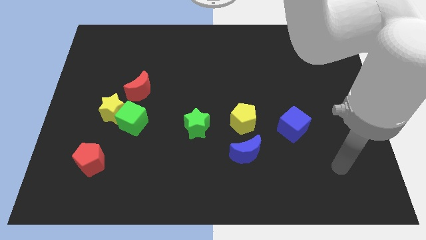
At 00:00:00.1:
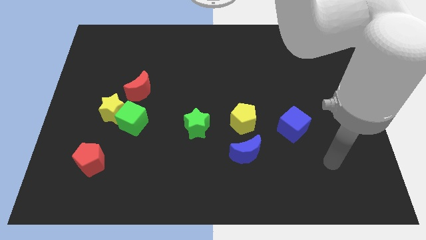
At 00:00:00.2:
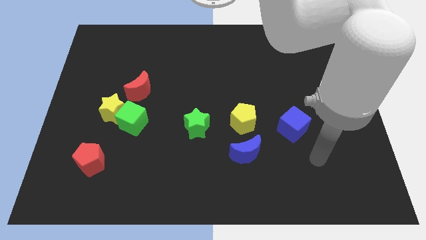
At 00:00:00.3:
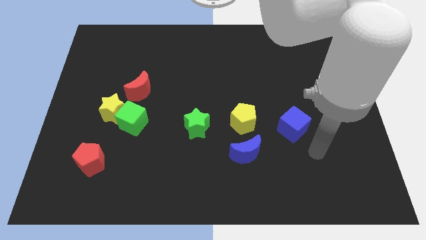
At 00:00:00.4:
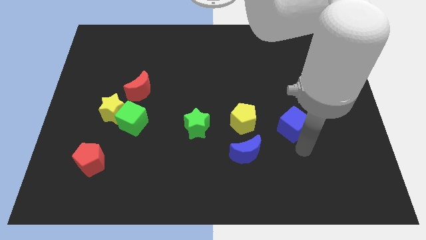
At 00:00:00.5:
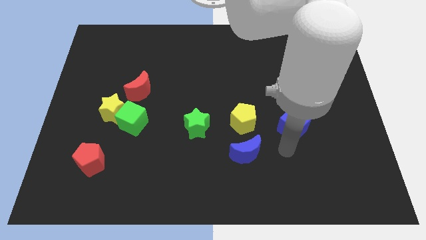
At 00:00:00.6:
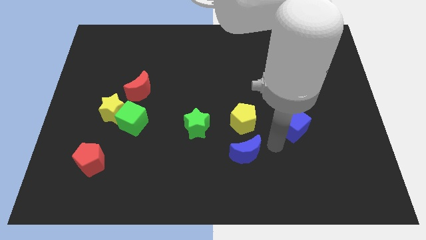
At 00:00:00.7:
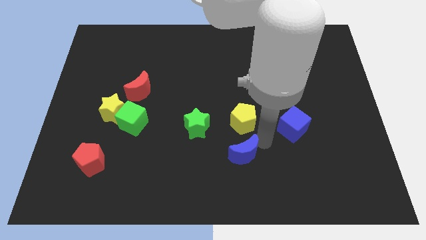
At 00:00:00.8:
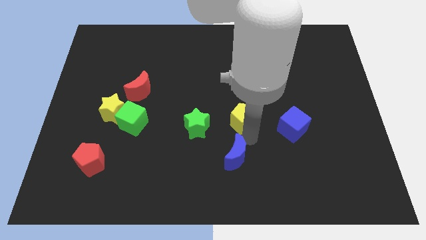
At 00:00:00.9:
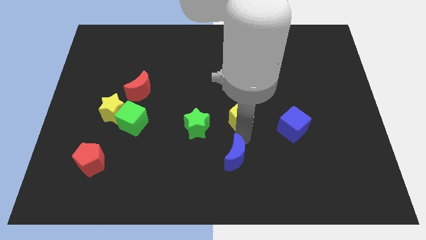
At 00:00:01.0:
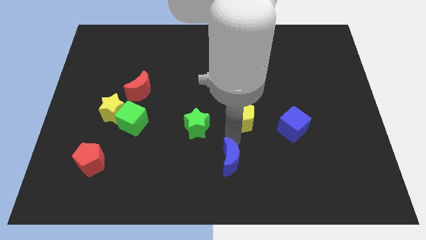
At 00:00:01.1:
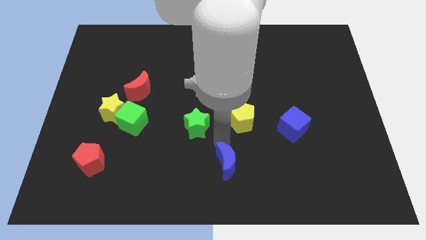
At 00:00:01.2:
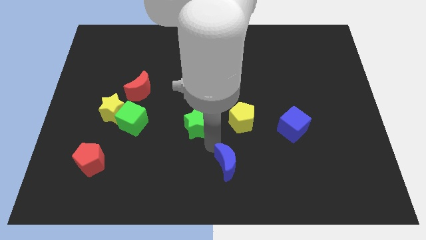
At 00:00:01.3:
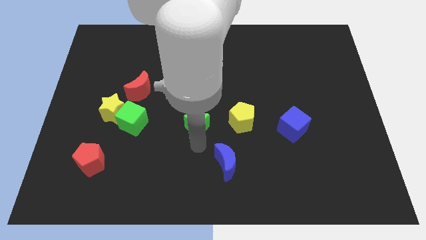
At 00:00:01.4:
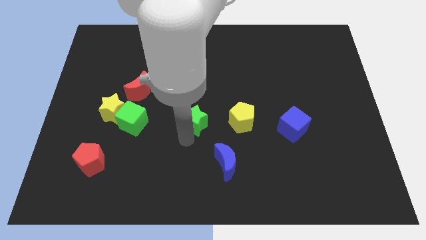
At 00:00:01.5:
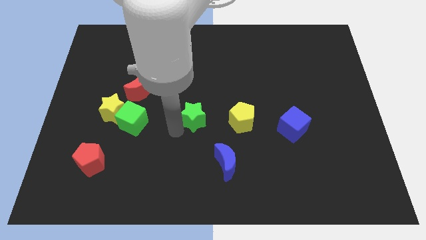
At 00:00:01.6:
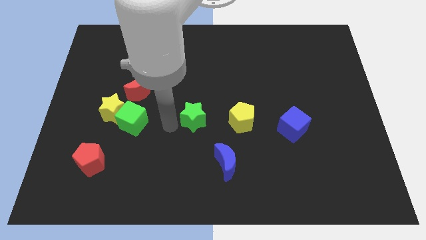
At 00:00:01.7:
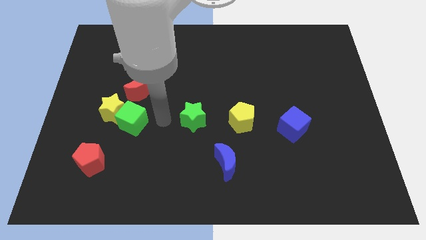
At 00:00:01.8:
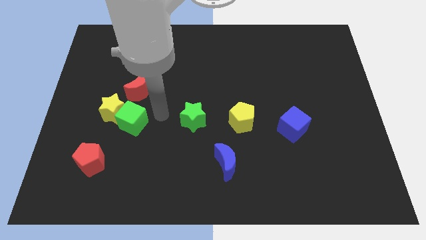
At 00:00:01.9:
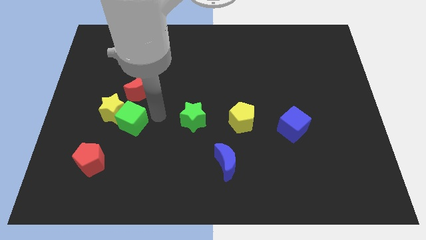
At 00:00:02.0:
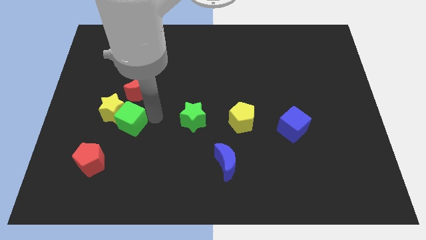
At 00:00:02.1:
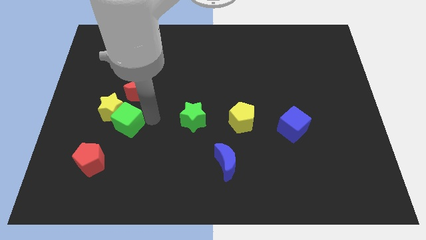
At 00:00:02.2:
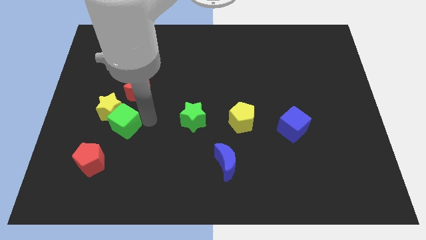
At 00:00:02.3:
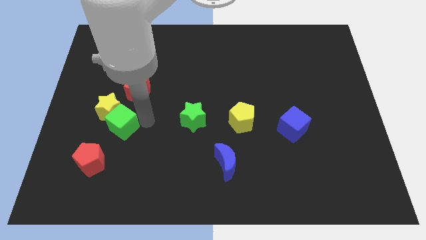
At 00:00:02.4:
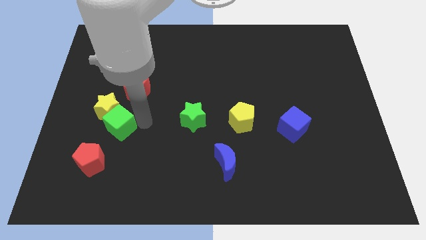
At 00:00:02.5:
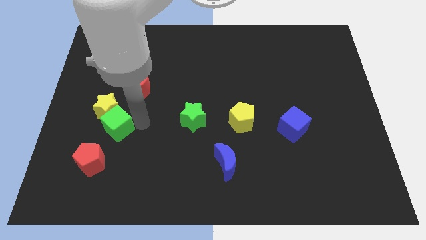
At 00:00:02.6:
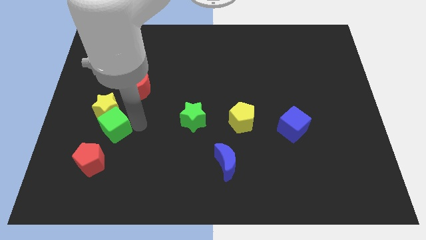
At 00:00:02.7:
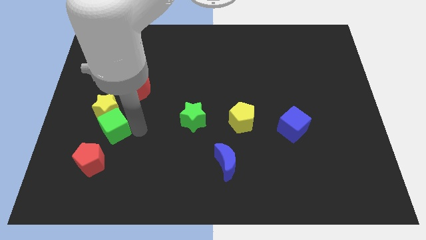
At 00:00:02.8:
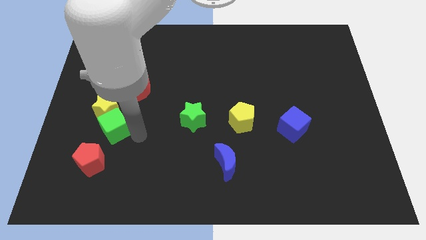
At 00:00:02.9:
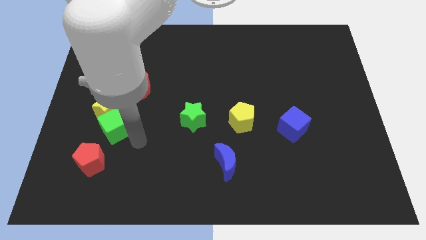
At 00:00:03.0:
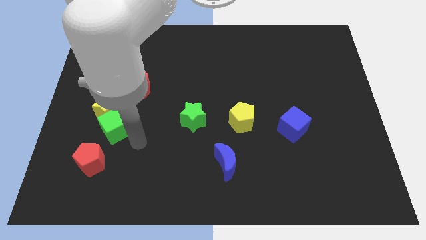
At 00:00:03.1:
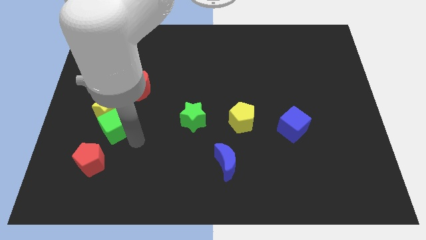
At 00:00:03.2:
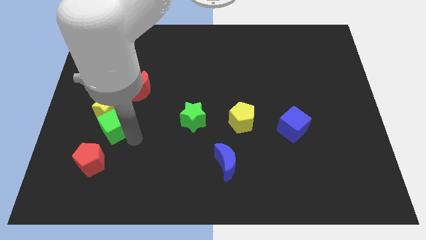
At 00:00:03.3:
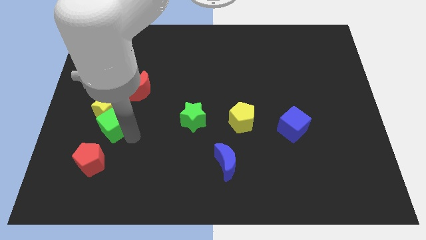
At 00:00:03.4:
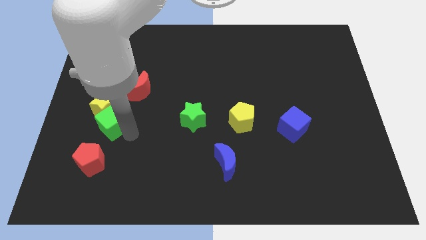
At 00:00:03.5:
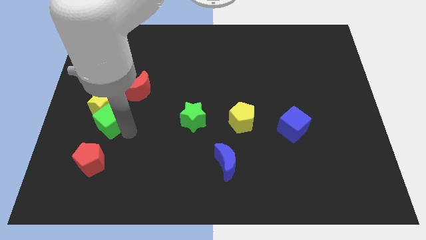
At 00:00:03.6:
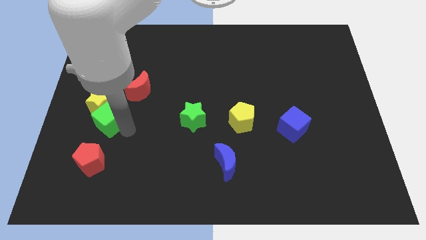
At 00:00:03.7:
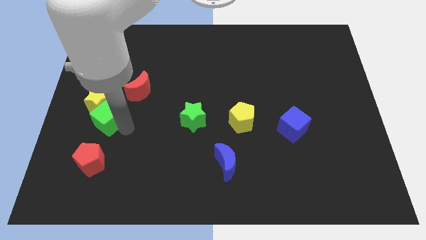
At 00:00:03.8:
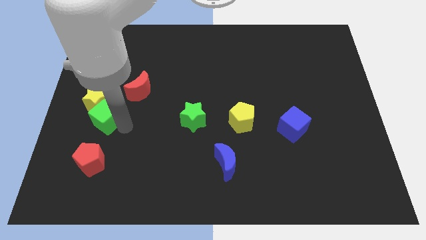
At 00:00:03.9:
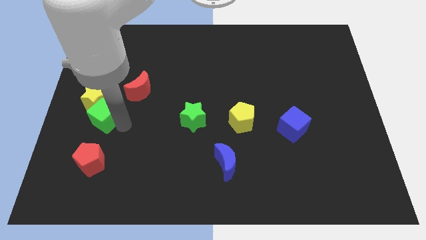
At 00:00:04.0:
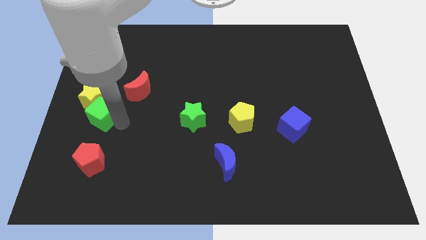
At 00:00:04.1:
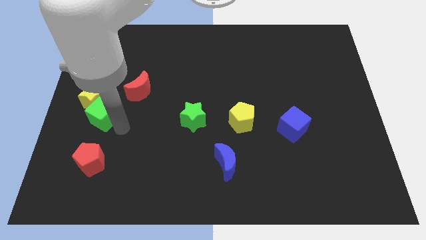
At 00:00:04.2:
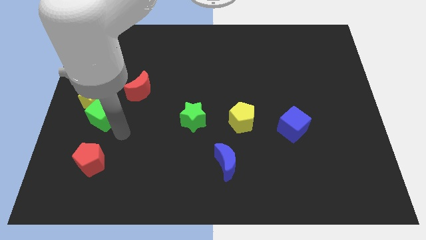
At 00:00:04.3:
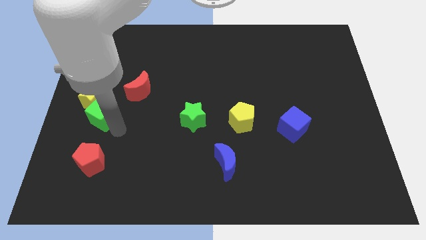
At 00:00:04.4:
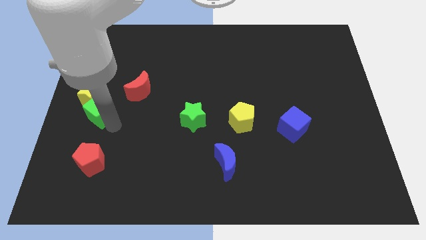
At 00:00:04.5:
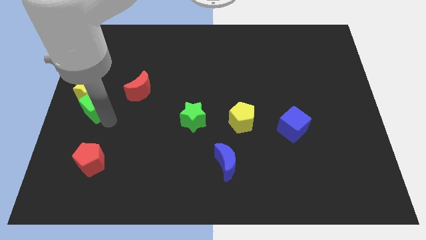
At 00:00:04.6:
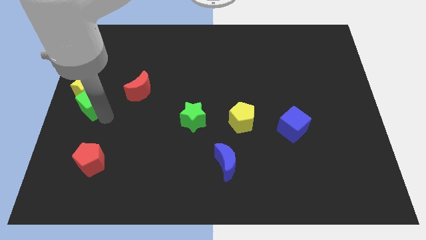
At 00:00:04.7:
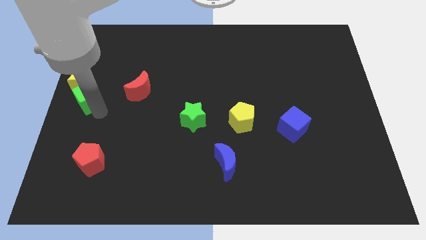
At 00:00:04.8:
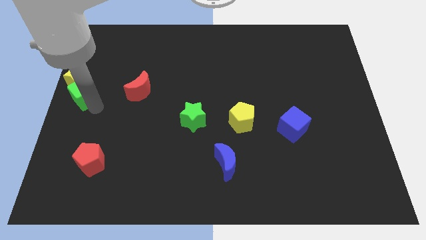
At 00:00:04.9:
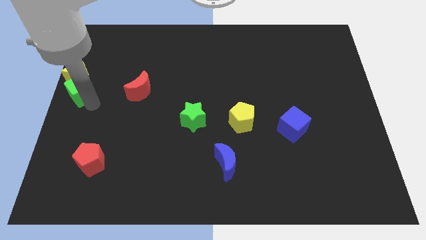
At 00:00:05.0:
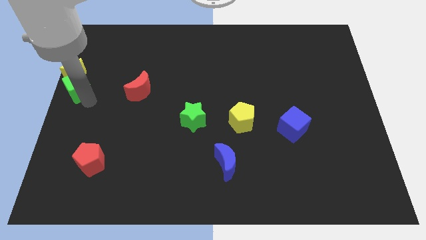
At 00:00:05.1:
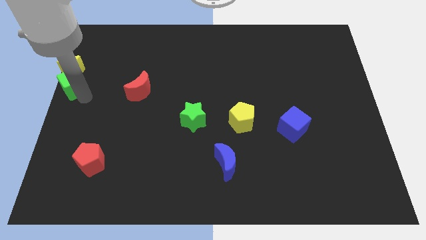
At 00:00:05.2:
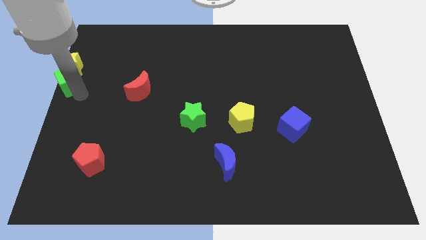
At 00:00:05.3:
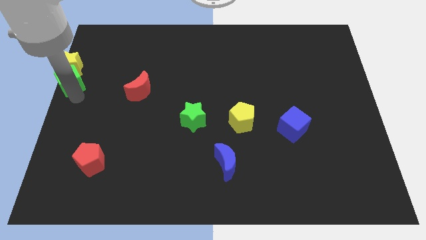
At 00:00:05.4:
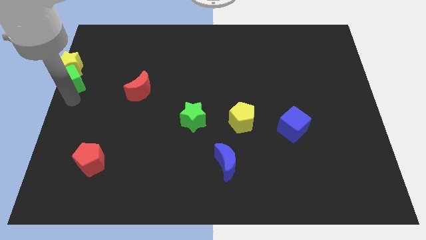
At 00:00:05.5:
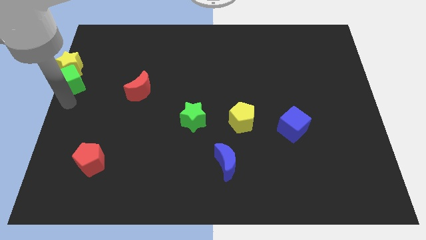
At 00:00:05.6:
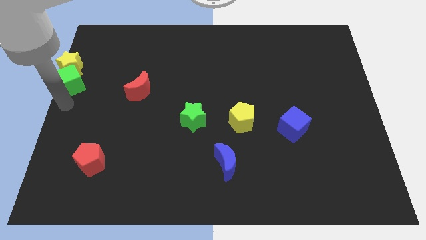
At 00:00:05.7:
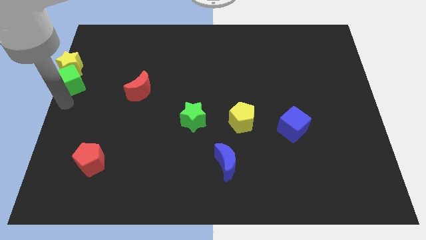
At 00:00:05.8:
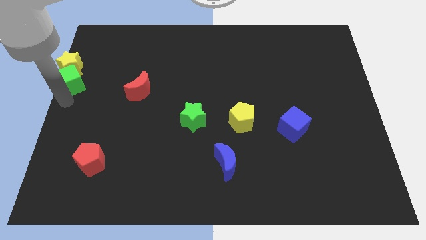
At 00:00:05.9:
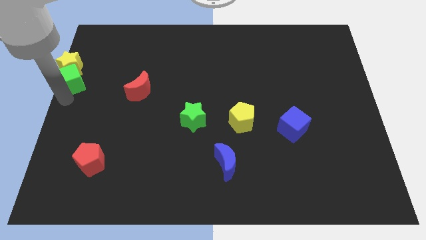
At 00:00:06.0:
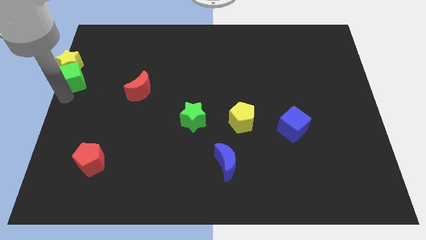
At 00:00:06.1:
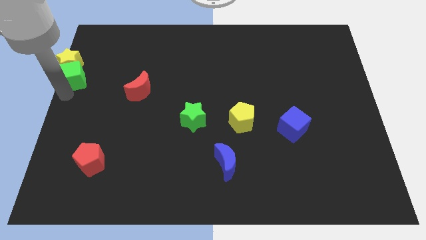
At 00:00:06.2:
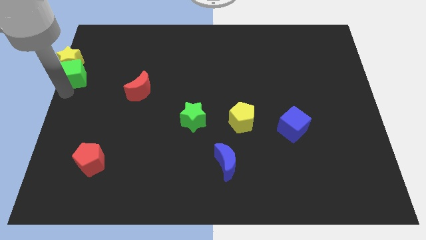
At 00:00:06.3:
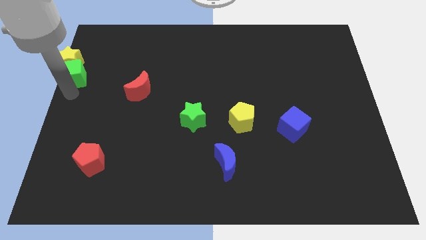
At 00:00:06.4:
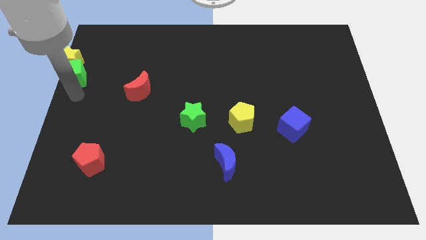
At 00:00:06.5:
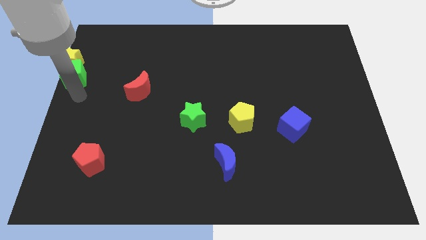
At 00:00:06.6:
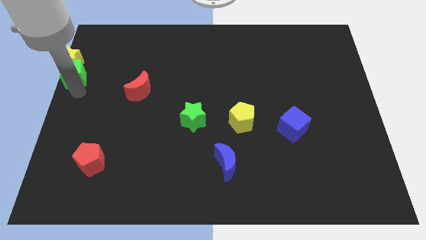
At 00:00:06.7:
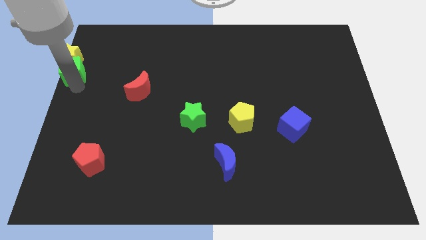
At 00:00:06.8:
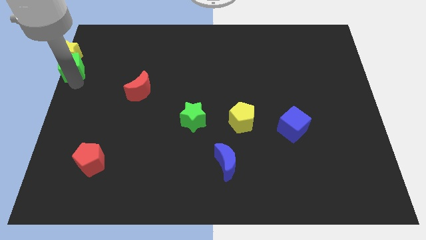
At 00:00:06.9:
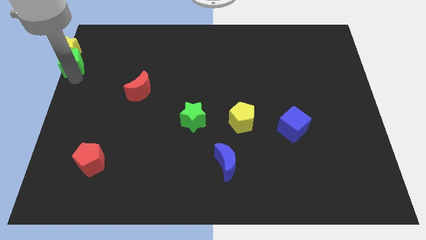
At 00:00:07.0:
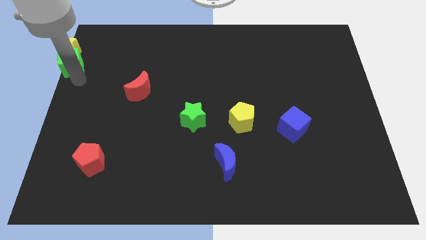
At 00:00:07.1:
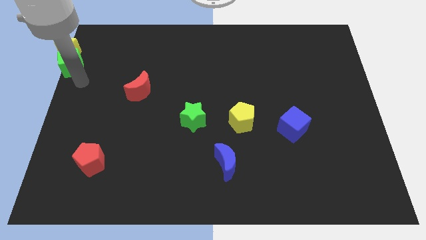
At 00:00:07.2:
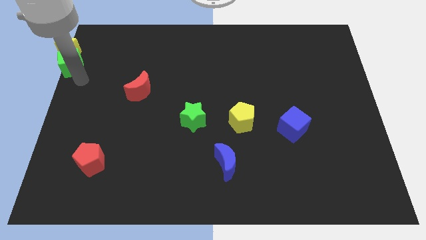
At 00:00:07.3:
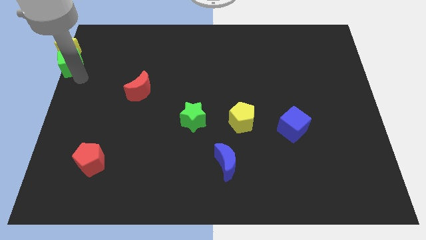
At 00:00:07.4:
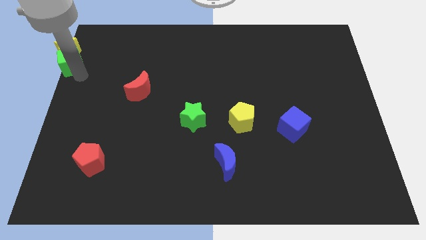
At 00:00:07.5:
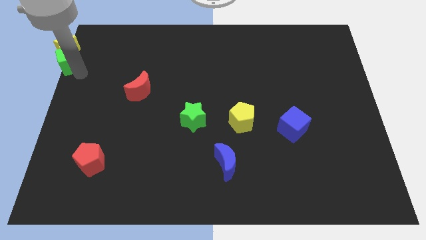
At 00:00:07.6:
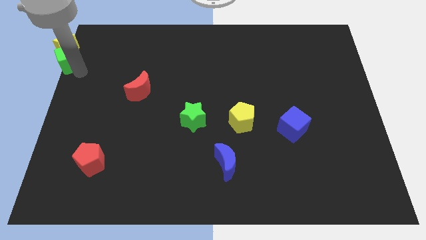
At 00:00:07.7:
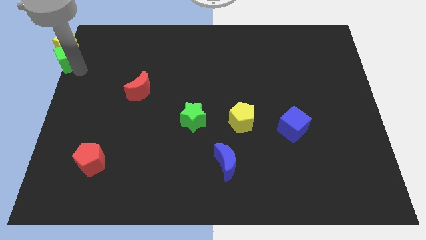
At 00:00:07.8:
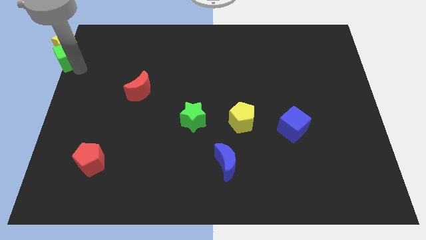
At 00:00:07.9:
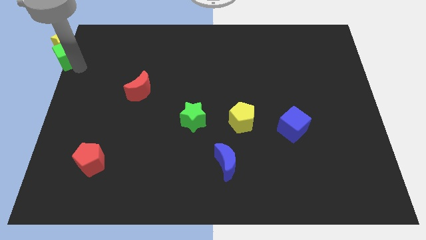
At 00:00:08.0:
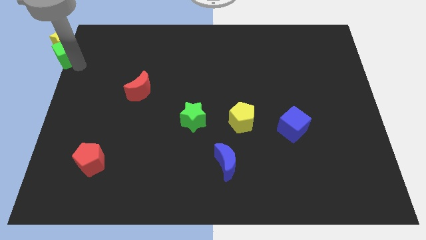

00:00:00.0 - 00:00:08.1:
slide the green cube to the top left of the board
